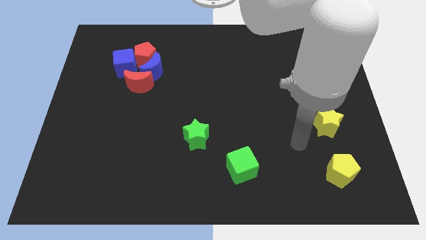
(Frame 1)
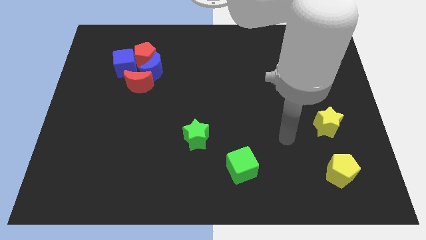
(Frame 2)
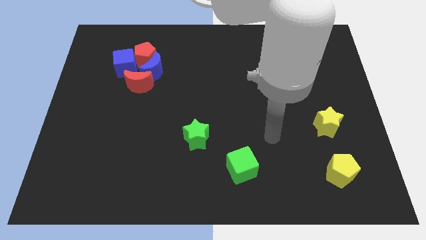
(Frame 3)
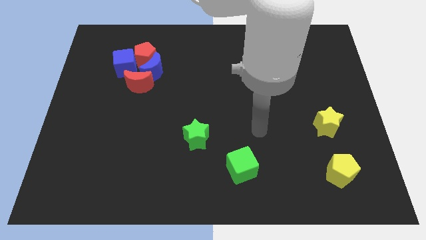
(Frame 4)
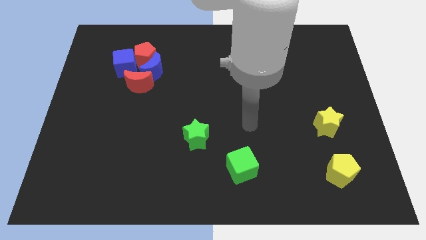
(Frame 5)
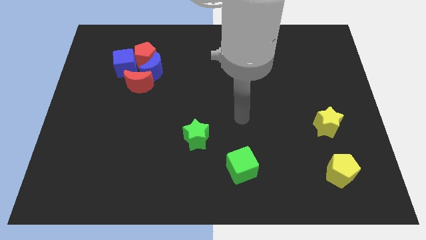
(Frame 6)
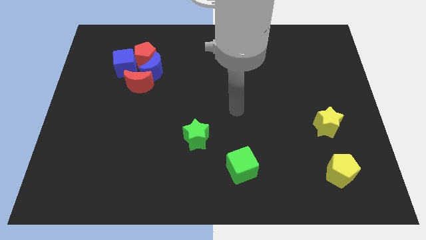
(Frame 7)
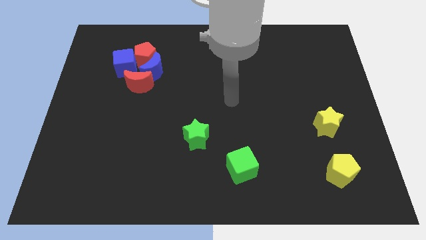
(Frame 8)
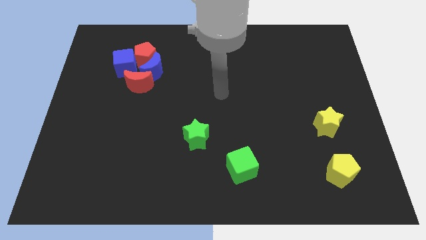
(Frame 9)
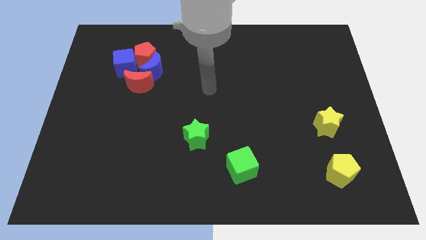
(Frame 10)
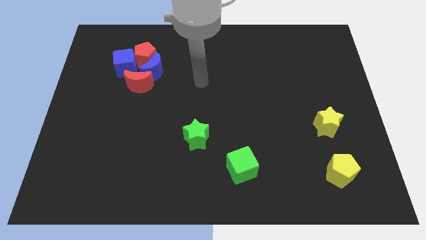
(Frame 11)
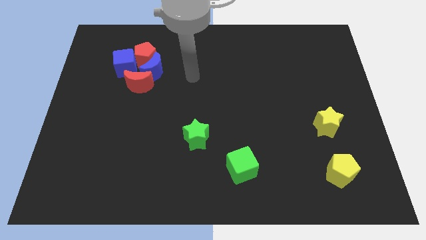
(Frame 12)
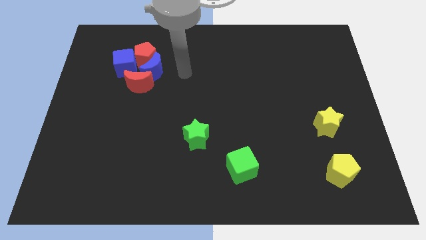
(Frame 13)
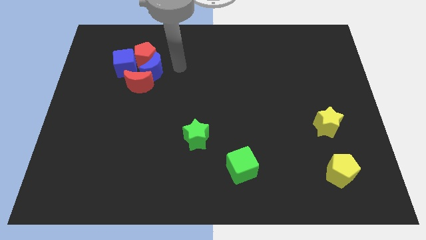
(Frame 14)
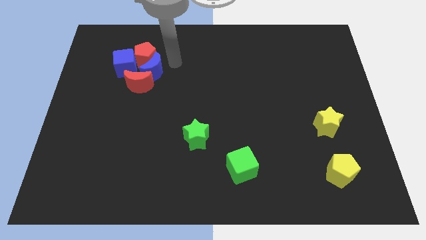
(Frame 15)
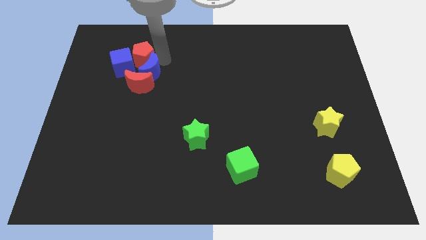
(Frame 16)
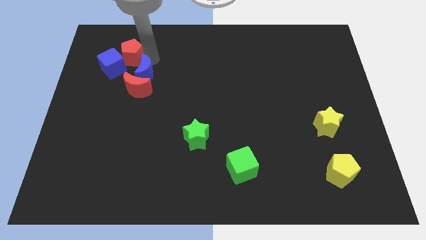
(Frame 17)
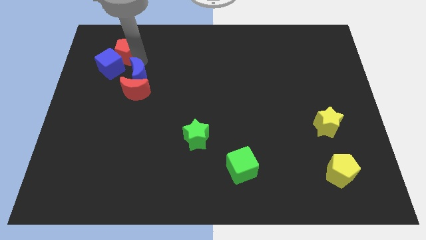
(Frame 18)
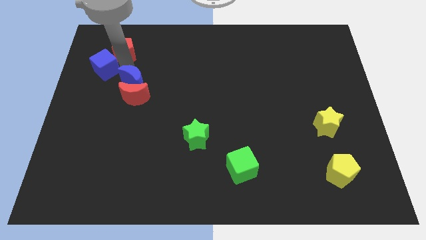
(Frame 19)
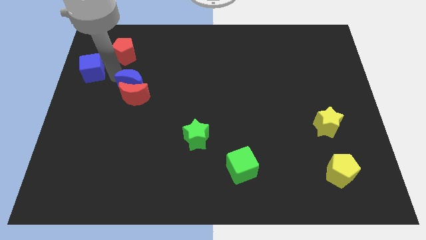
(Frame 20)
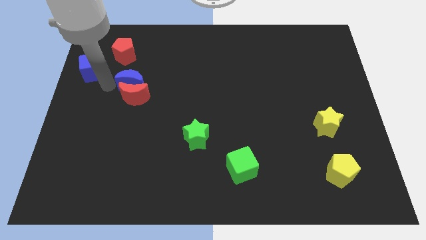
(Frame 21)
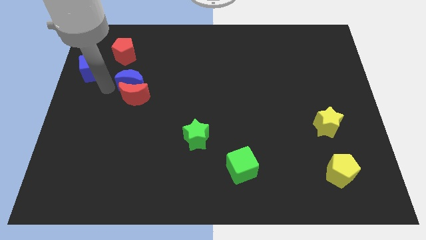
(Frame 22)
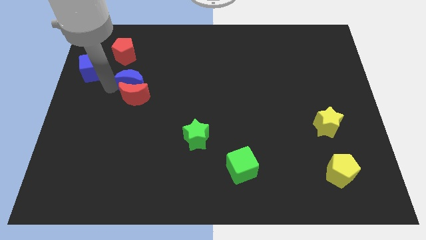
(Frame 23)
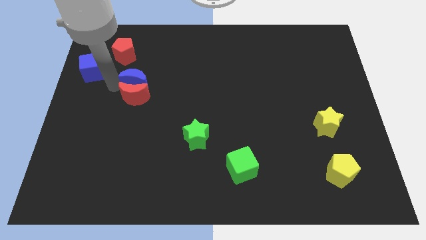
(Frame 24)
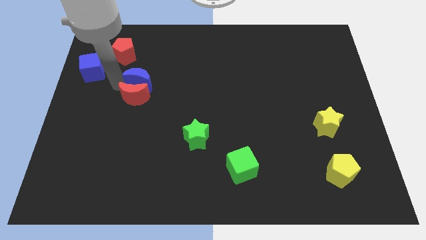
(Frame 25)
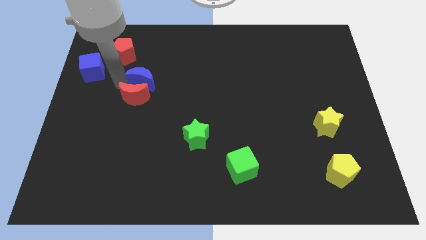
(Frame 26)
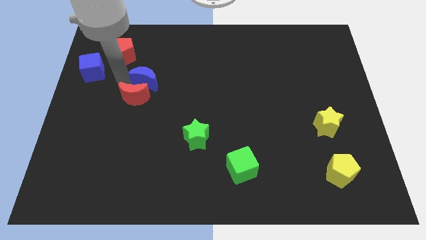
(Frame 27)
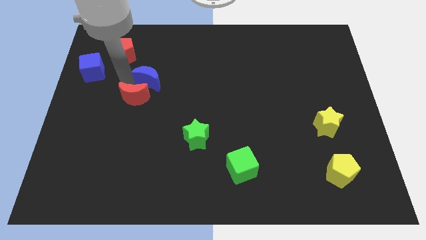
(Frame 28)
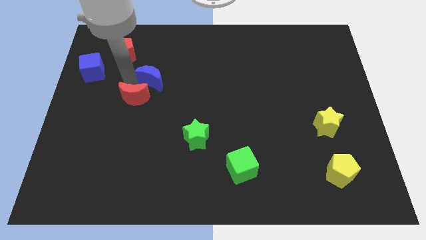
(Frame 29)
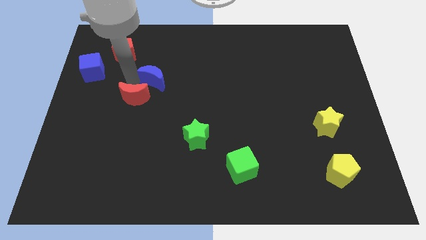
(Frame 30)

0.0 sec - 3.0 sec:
move the blue moon away from the group of blocks

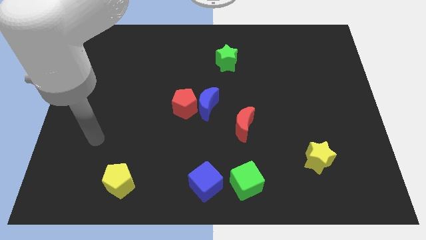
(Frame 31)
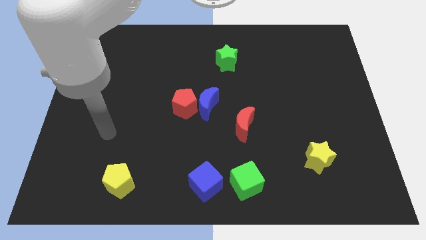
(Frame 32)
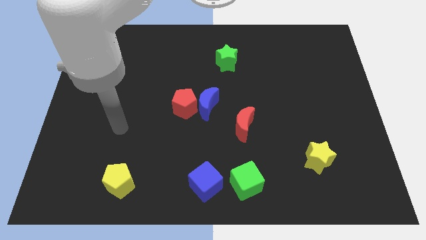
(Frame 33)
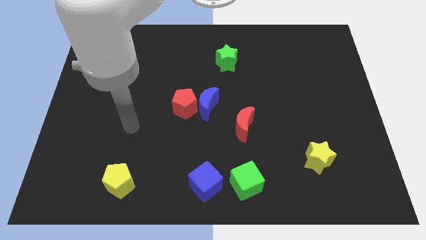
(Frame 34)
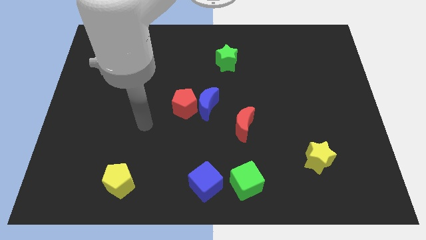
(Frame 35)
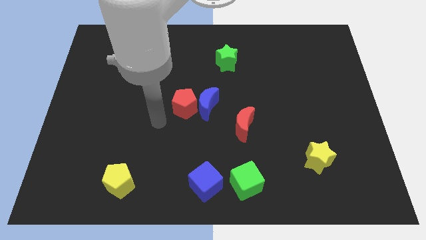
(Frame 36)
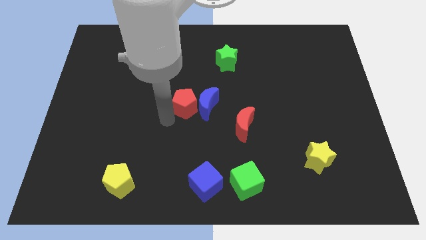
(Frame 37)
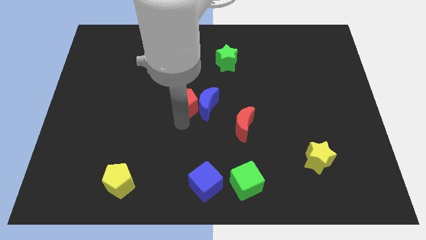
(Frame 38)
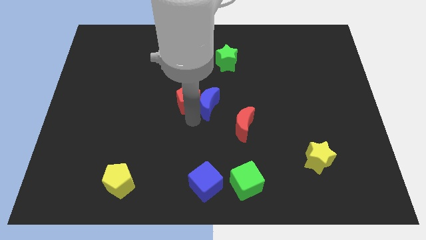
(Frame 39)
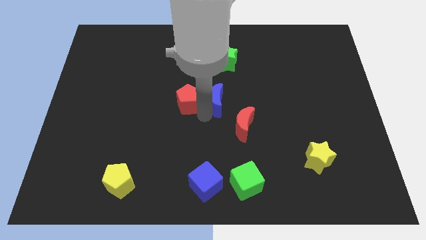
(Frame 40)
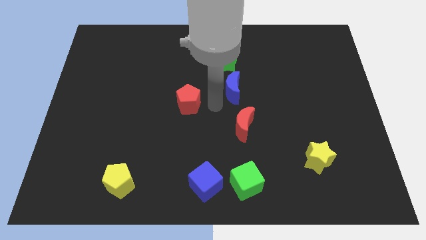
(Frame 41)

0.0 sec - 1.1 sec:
separate the red pentagon from the blue moon

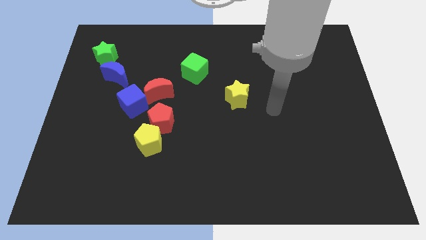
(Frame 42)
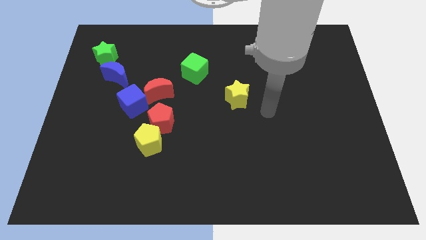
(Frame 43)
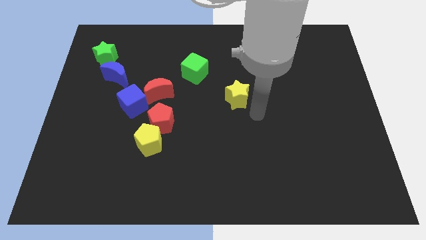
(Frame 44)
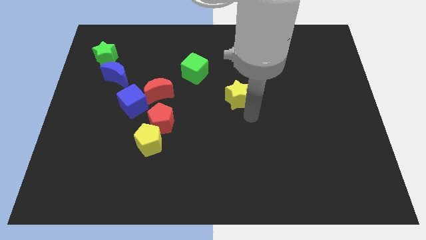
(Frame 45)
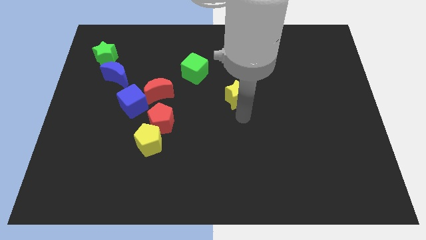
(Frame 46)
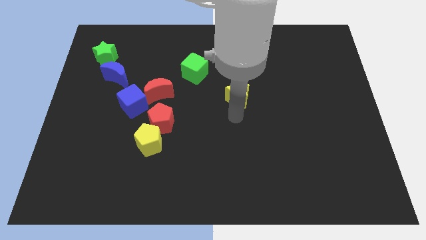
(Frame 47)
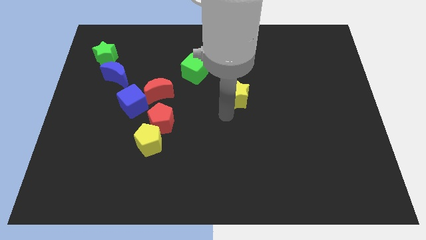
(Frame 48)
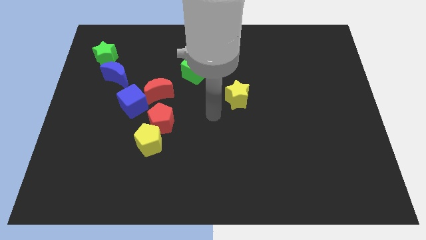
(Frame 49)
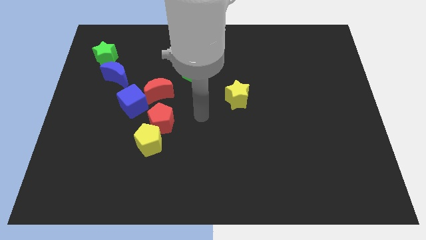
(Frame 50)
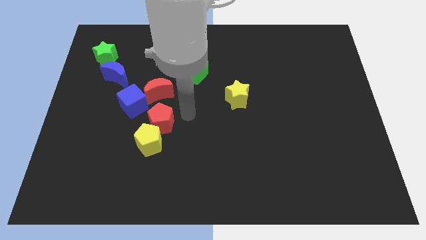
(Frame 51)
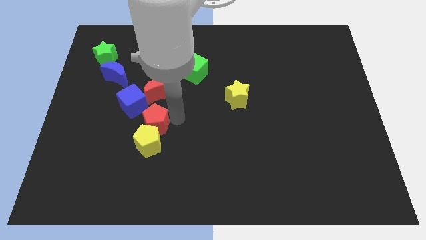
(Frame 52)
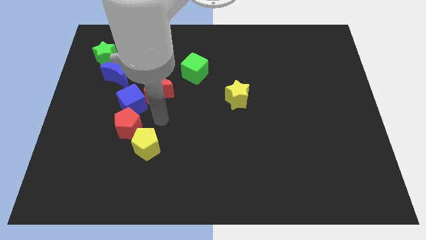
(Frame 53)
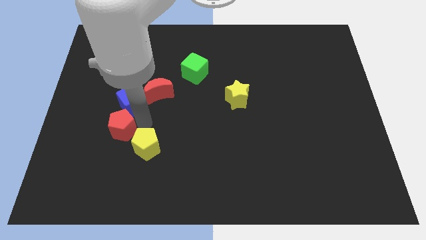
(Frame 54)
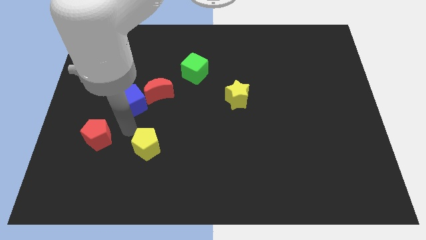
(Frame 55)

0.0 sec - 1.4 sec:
pull the yellow pentagon apart from the red pentagon

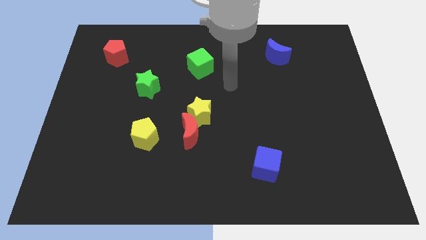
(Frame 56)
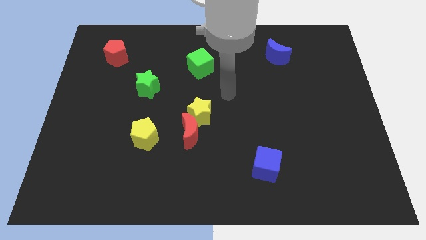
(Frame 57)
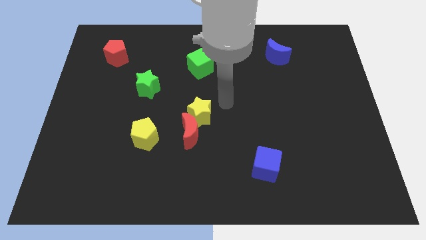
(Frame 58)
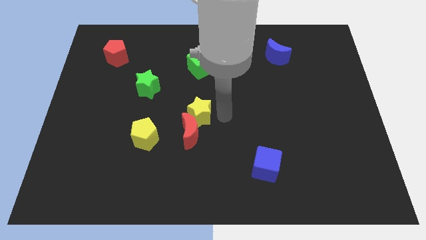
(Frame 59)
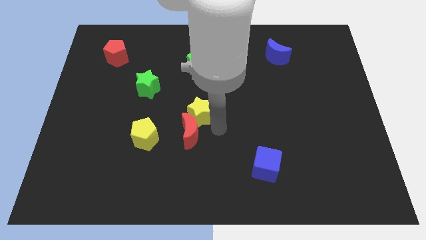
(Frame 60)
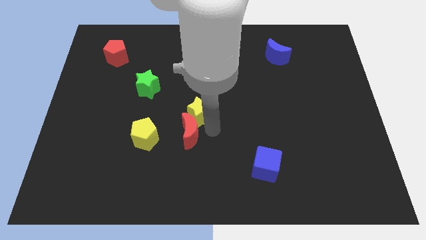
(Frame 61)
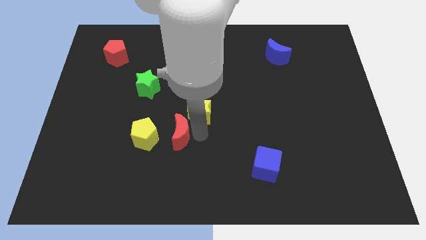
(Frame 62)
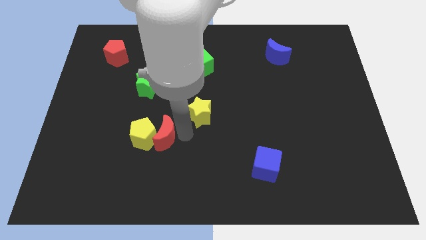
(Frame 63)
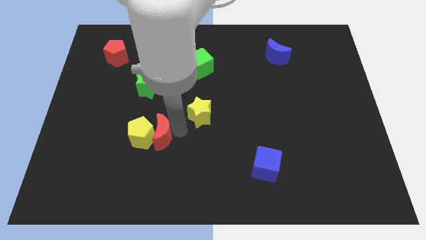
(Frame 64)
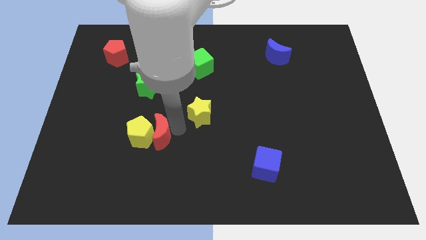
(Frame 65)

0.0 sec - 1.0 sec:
separate the yellow star from the red moon

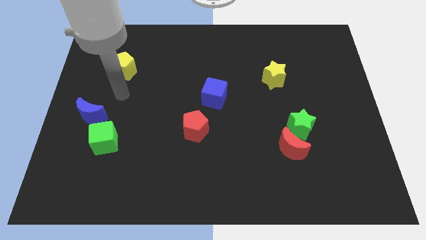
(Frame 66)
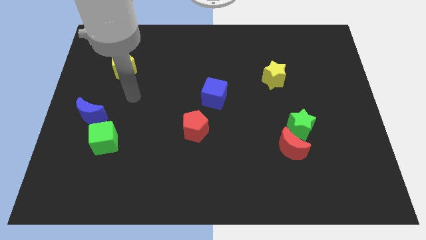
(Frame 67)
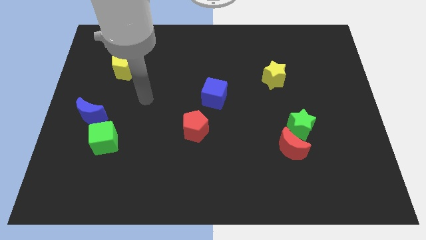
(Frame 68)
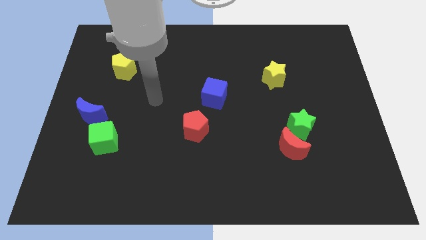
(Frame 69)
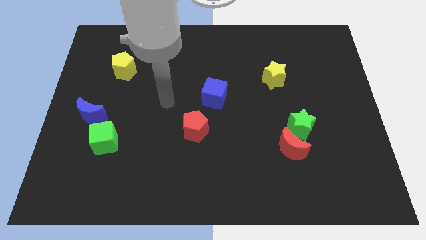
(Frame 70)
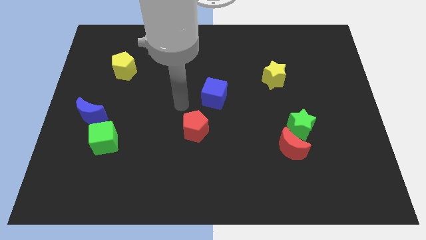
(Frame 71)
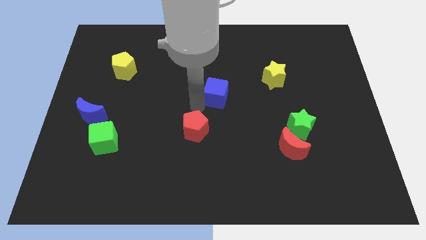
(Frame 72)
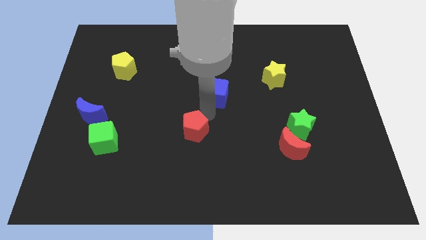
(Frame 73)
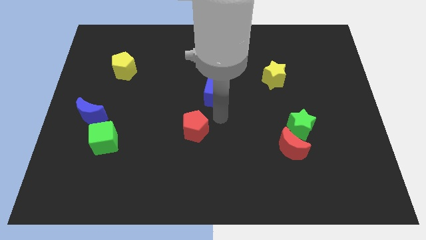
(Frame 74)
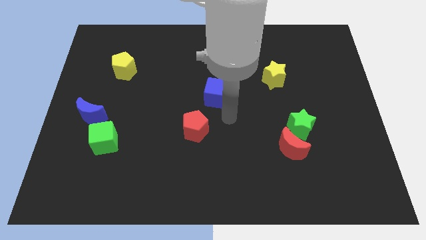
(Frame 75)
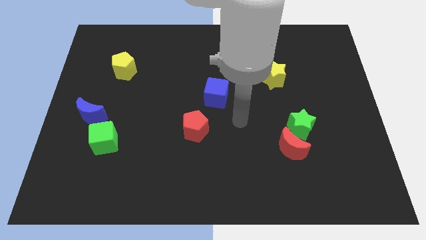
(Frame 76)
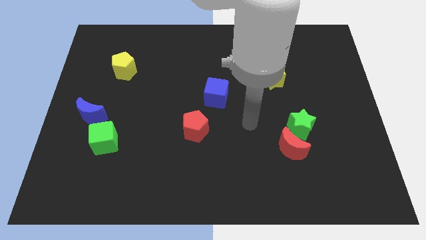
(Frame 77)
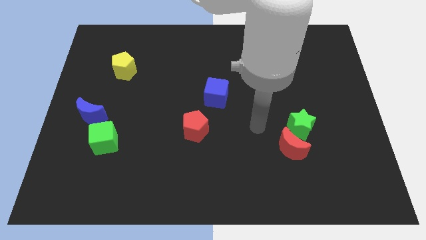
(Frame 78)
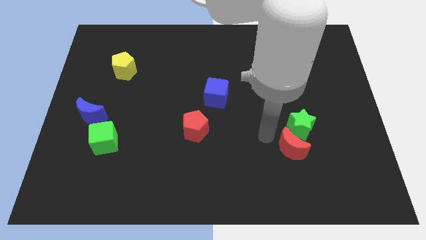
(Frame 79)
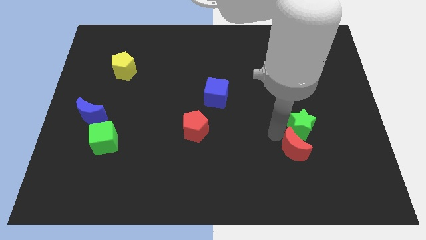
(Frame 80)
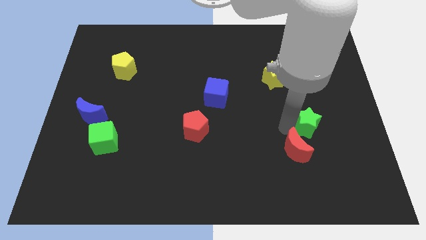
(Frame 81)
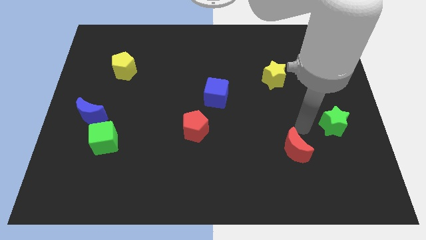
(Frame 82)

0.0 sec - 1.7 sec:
pull the red moon apart from the green star

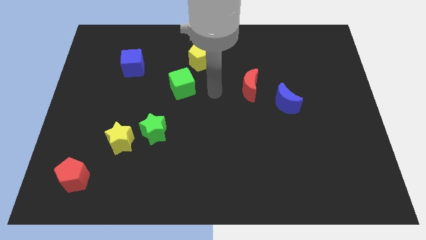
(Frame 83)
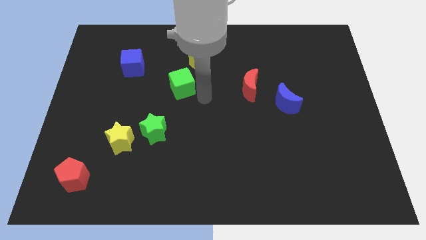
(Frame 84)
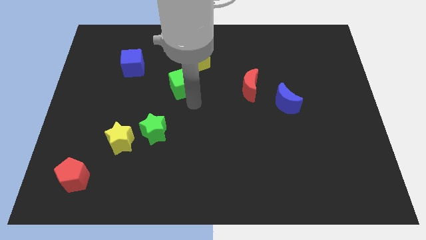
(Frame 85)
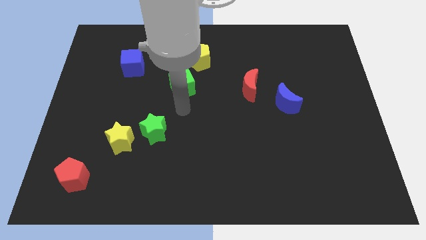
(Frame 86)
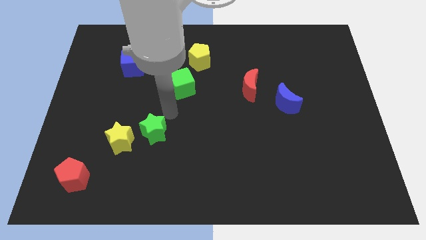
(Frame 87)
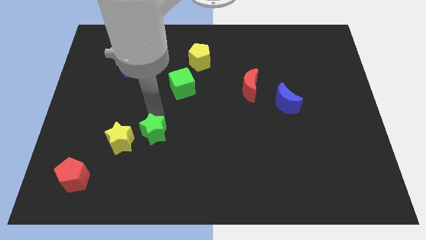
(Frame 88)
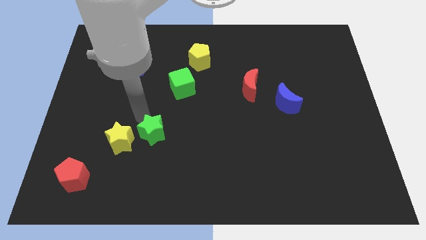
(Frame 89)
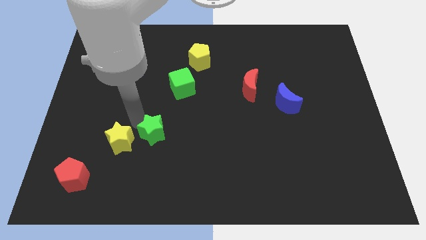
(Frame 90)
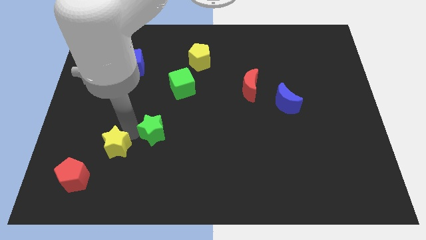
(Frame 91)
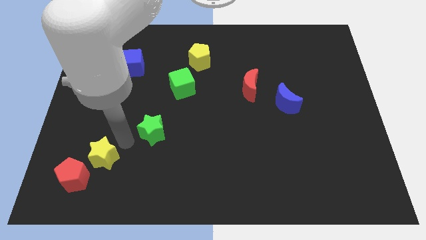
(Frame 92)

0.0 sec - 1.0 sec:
separate the green star from the yellow star
